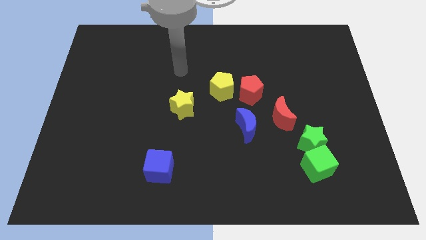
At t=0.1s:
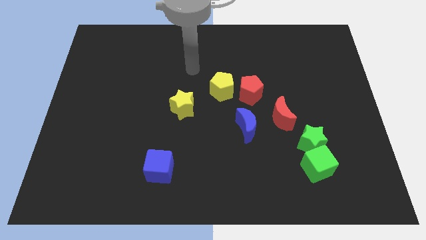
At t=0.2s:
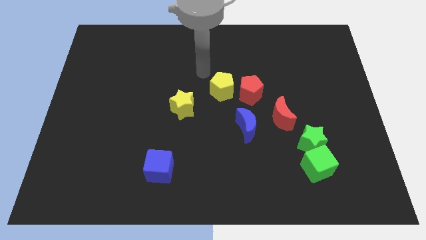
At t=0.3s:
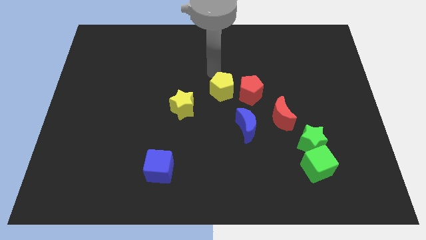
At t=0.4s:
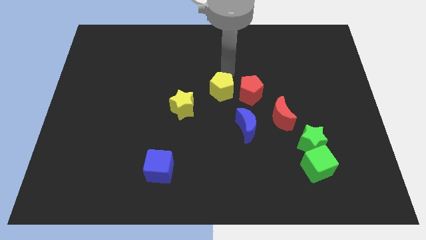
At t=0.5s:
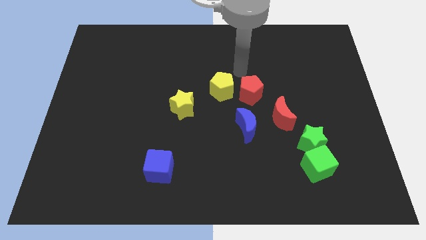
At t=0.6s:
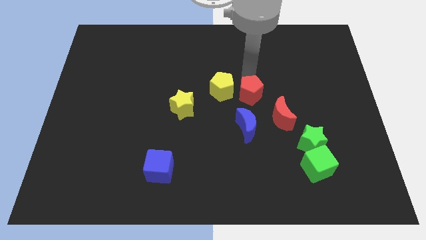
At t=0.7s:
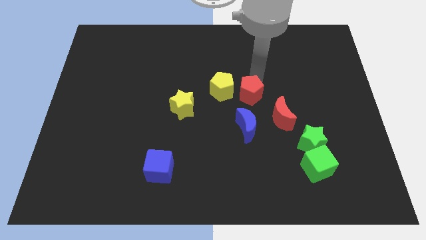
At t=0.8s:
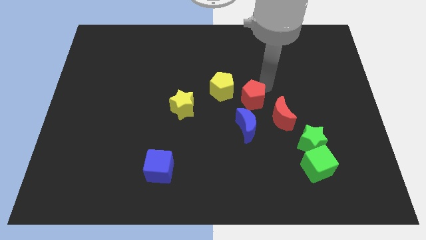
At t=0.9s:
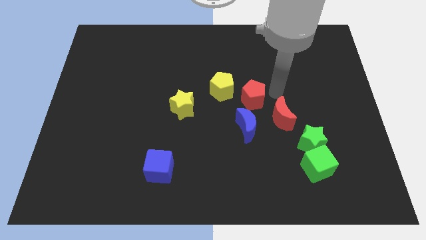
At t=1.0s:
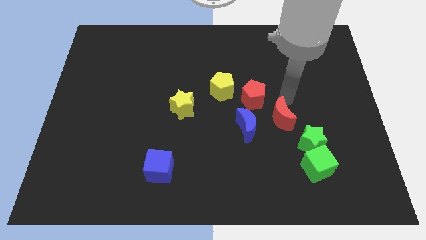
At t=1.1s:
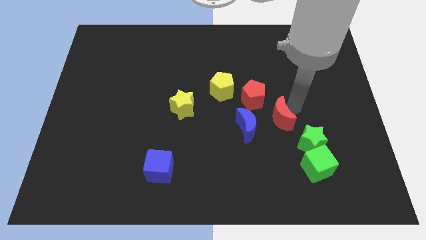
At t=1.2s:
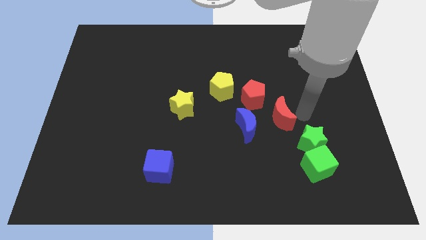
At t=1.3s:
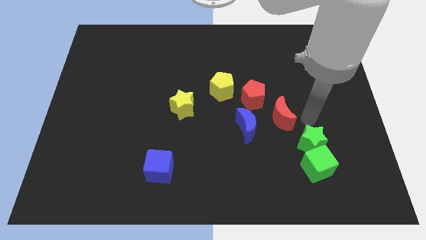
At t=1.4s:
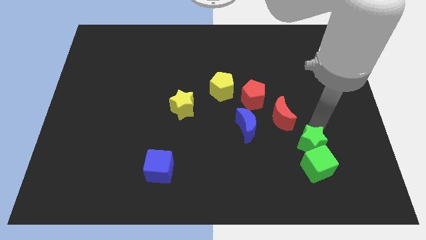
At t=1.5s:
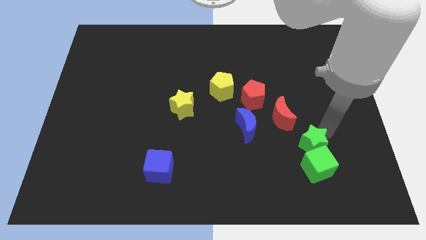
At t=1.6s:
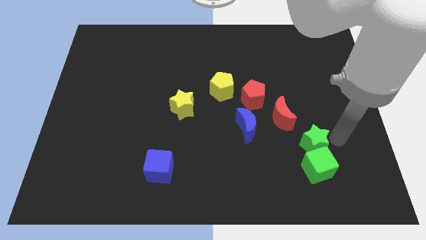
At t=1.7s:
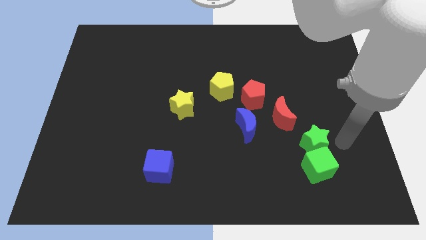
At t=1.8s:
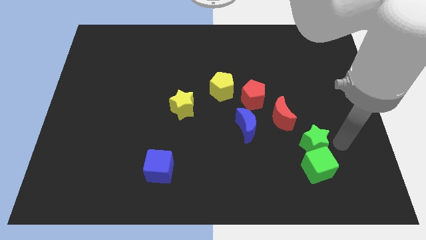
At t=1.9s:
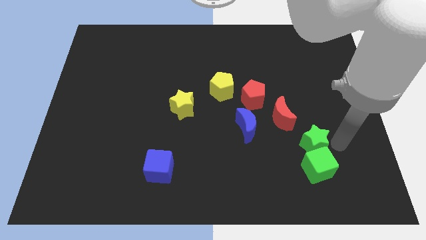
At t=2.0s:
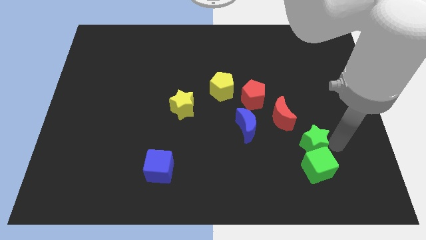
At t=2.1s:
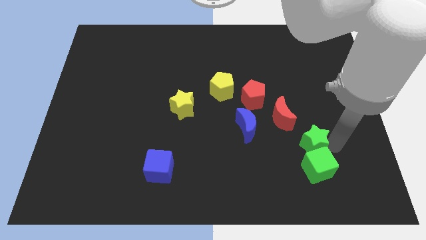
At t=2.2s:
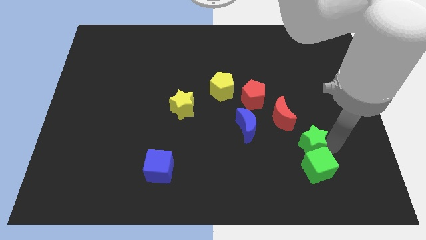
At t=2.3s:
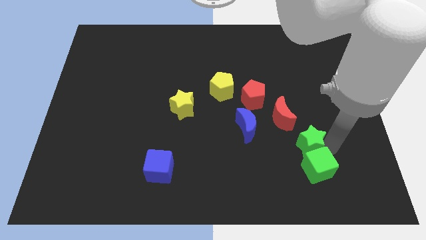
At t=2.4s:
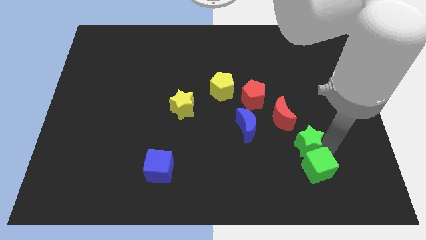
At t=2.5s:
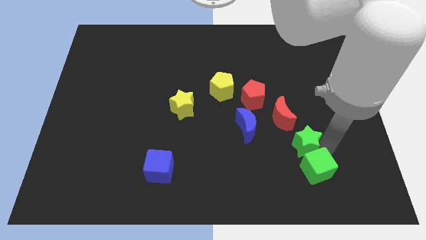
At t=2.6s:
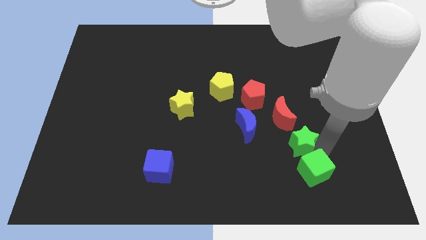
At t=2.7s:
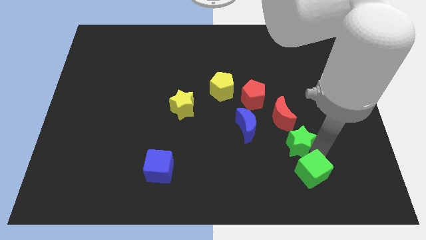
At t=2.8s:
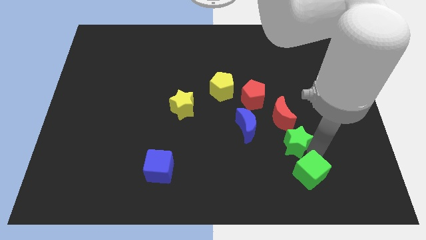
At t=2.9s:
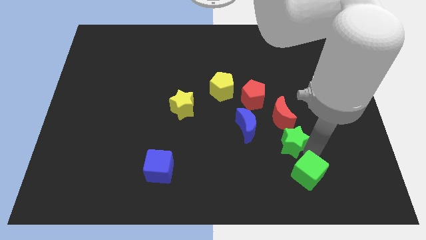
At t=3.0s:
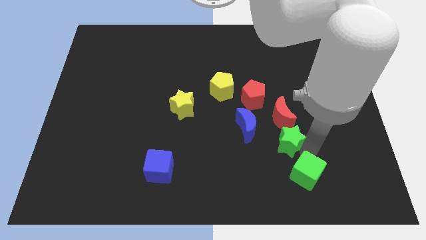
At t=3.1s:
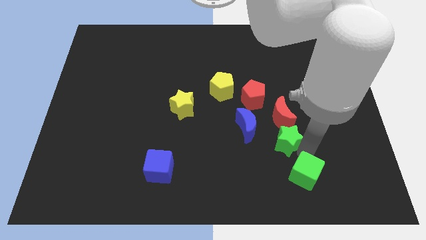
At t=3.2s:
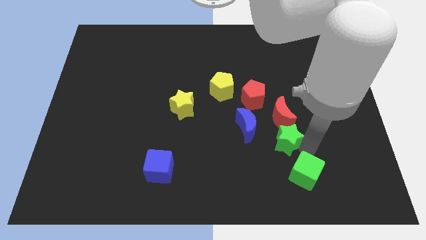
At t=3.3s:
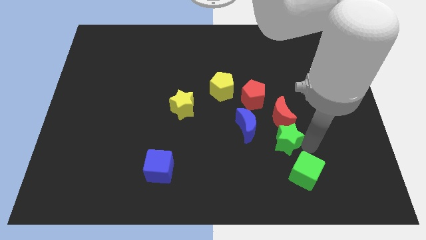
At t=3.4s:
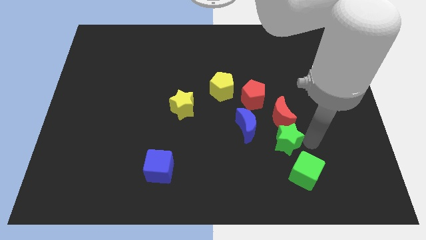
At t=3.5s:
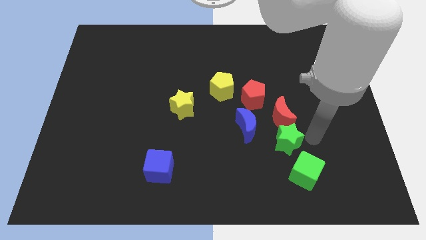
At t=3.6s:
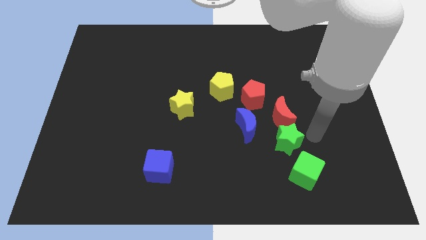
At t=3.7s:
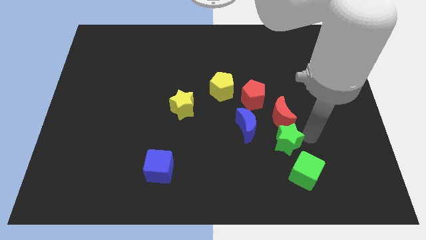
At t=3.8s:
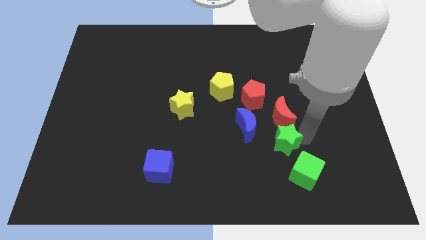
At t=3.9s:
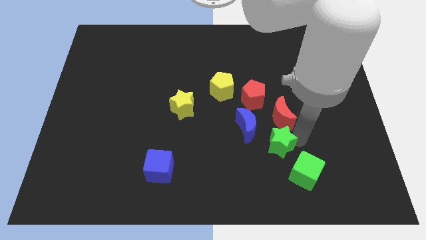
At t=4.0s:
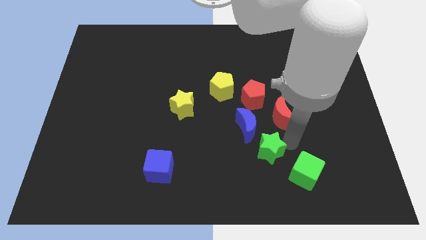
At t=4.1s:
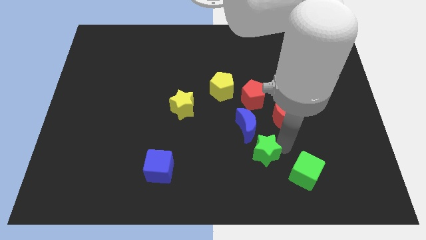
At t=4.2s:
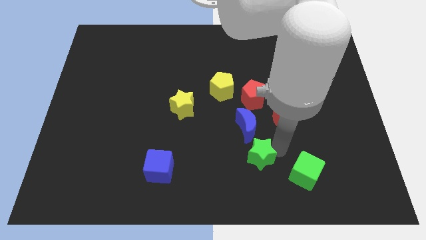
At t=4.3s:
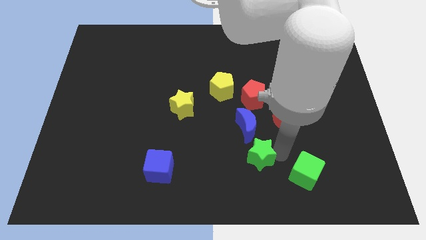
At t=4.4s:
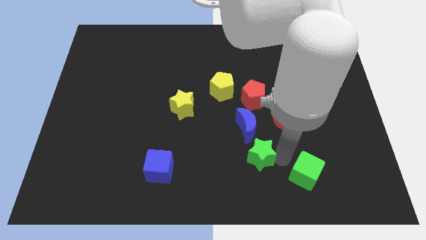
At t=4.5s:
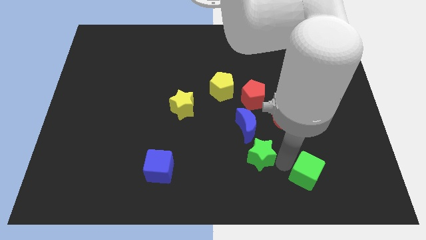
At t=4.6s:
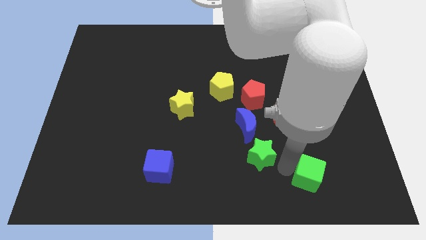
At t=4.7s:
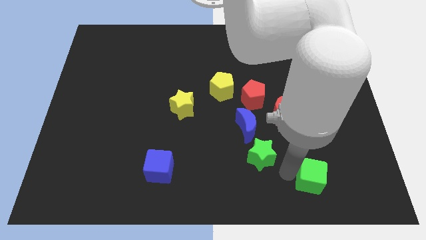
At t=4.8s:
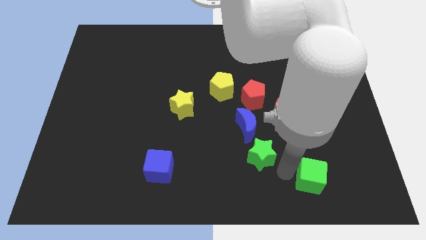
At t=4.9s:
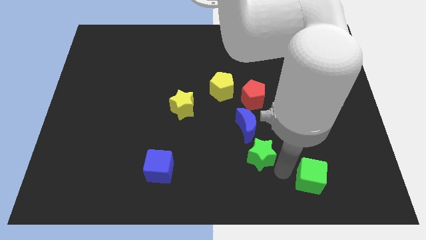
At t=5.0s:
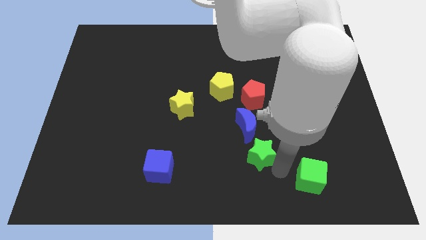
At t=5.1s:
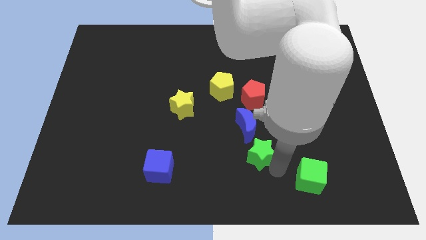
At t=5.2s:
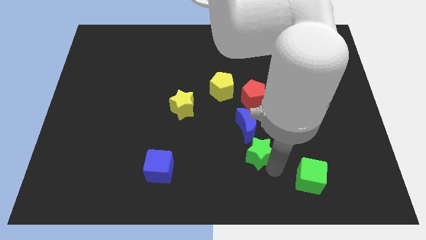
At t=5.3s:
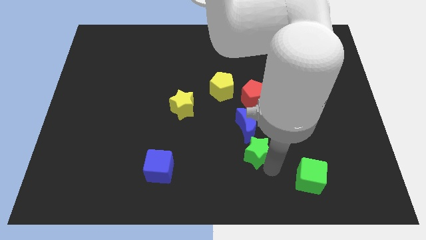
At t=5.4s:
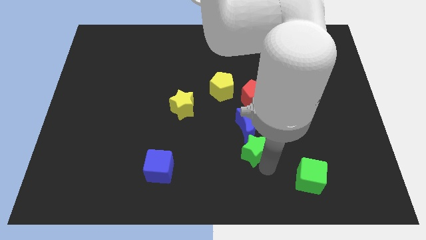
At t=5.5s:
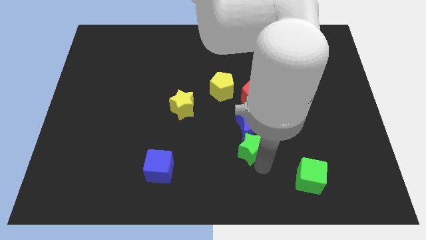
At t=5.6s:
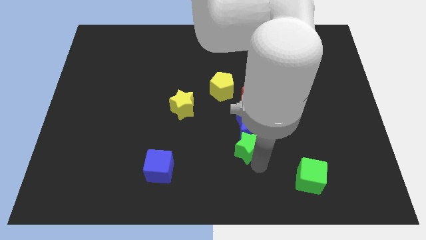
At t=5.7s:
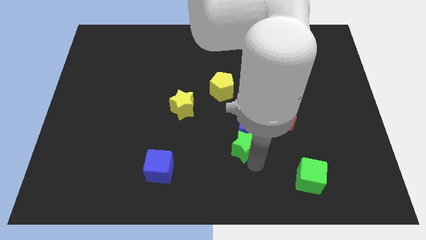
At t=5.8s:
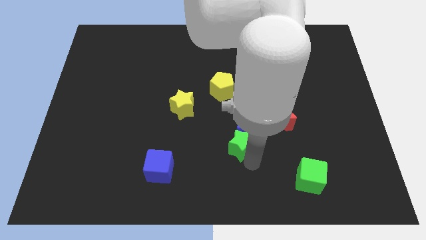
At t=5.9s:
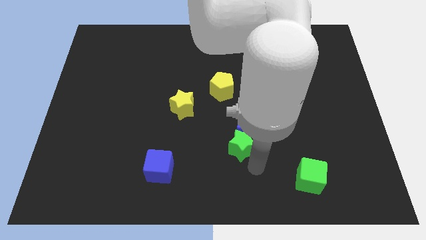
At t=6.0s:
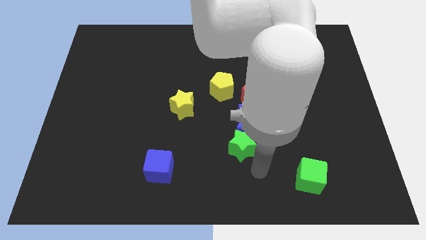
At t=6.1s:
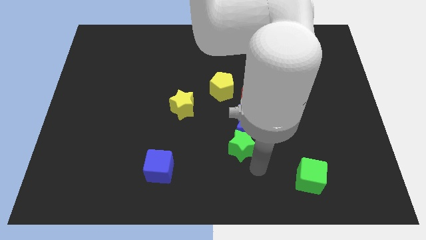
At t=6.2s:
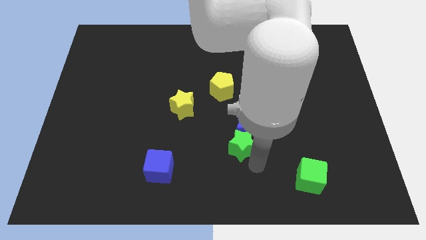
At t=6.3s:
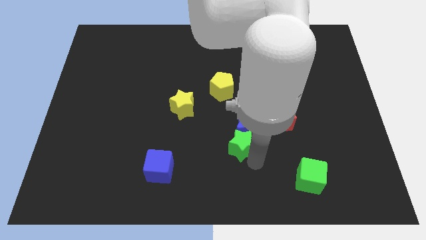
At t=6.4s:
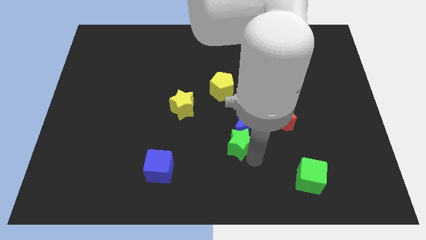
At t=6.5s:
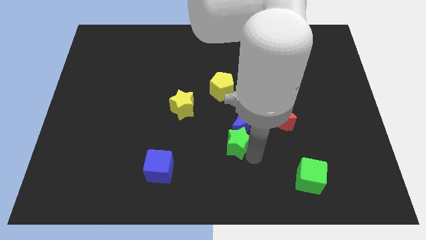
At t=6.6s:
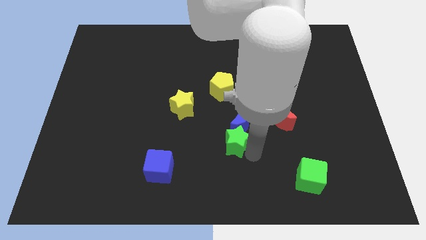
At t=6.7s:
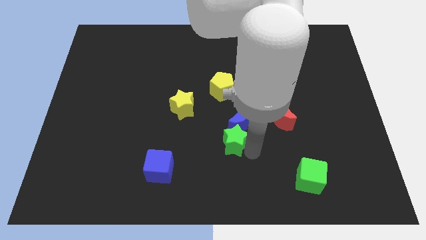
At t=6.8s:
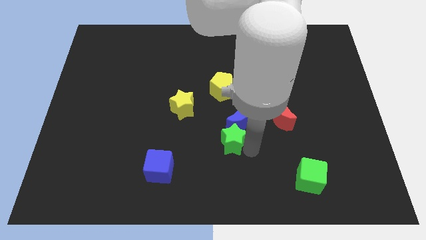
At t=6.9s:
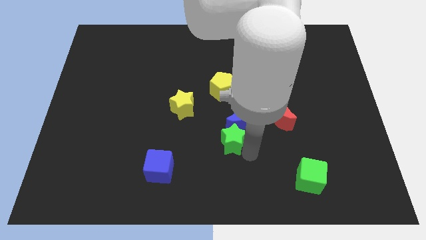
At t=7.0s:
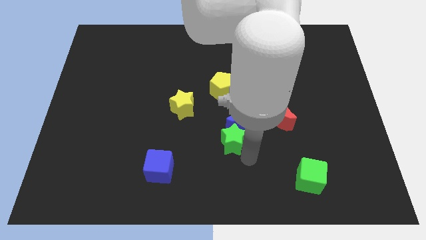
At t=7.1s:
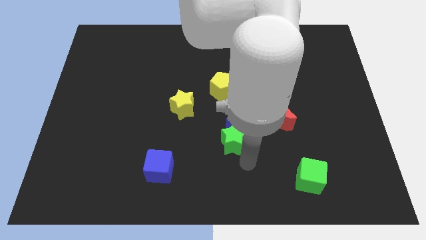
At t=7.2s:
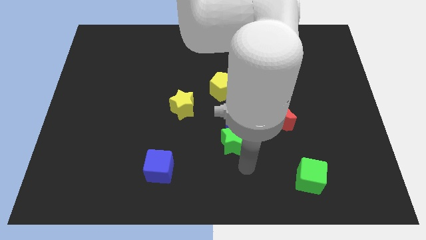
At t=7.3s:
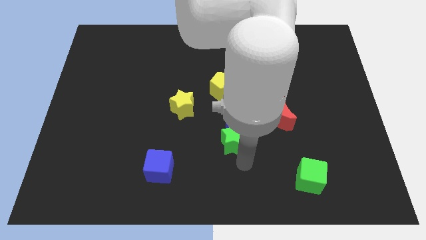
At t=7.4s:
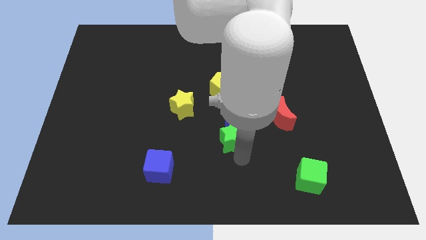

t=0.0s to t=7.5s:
move the green star to the center of the board
